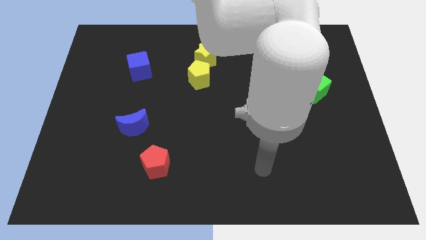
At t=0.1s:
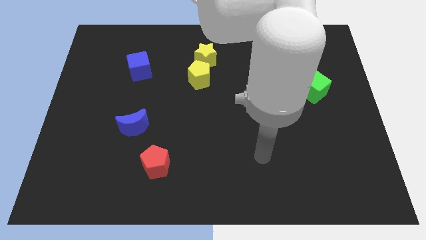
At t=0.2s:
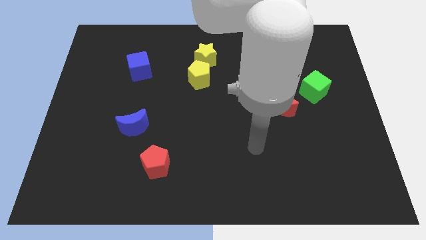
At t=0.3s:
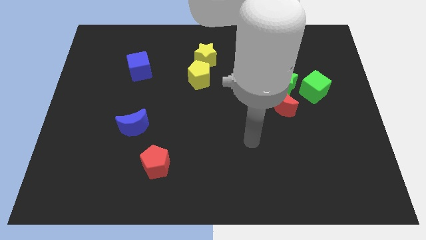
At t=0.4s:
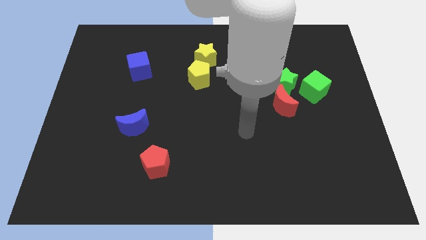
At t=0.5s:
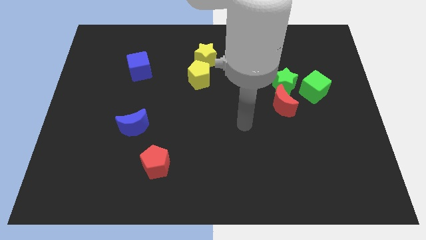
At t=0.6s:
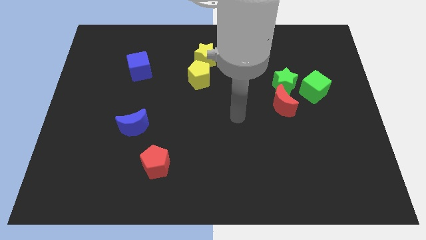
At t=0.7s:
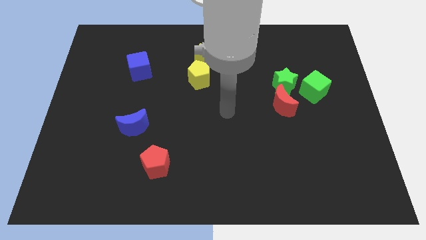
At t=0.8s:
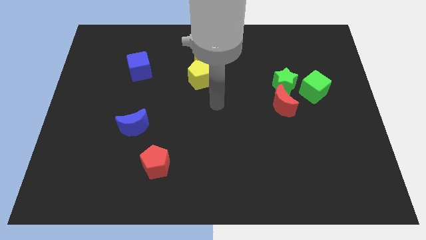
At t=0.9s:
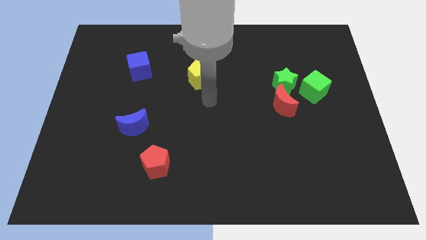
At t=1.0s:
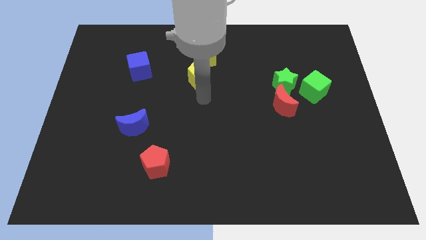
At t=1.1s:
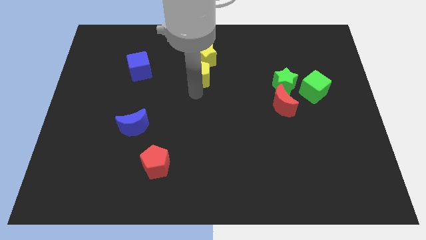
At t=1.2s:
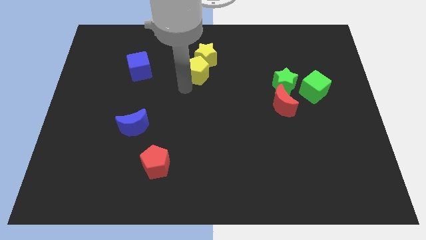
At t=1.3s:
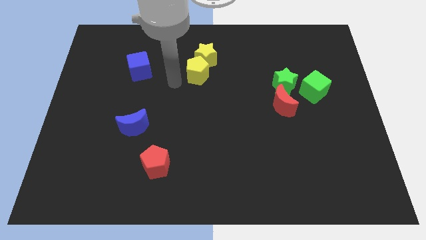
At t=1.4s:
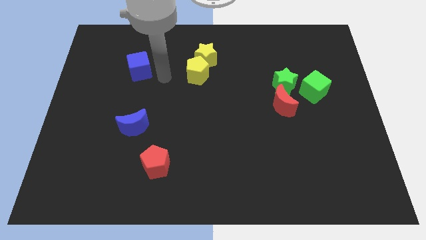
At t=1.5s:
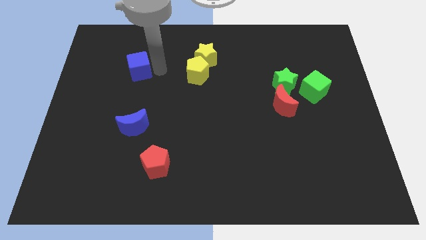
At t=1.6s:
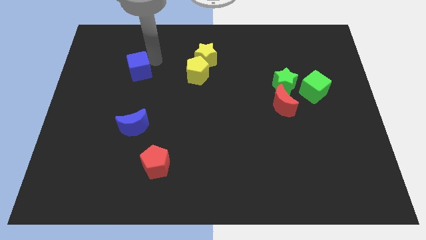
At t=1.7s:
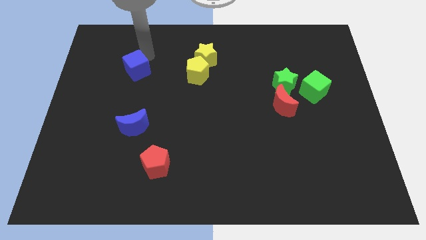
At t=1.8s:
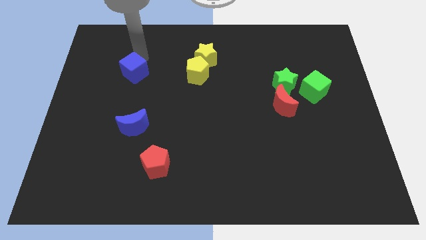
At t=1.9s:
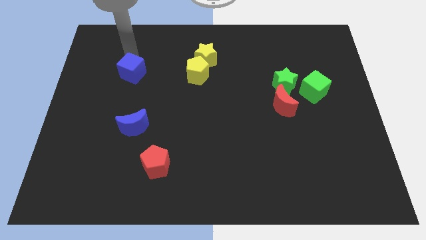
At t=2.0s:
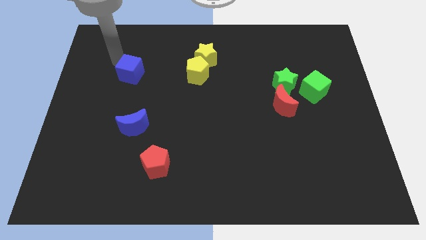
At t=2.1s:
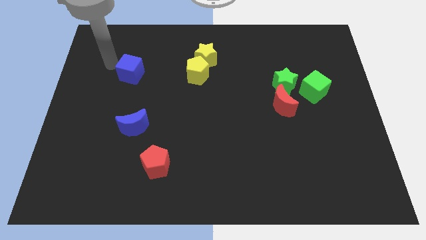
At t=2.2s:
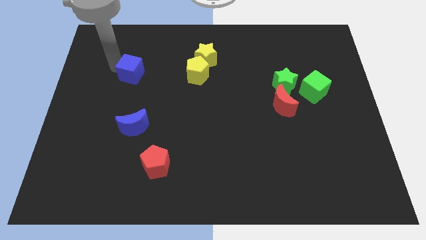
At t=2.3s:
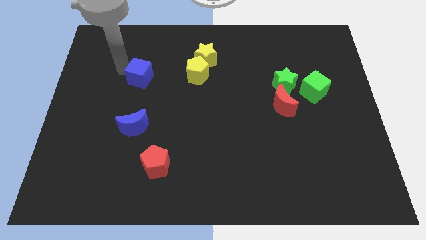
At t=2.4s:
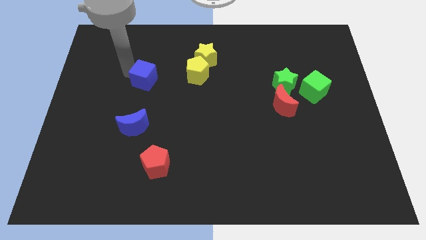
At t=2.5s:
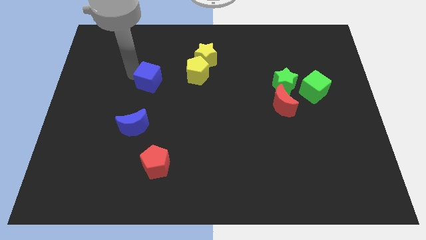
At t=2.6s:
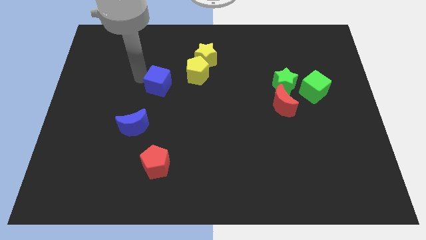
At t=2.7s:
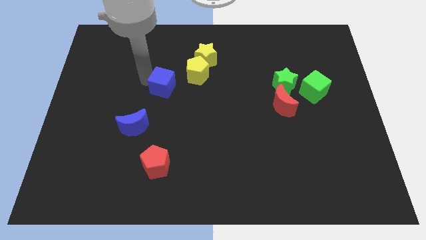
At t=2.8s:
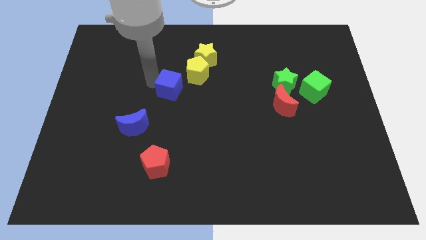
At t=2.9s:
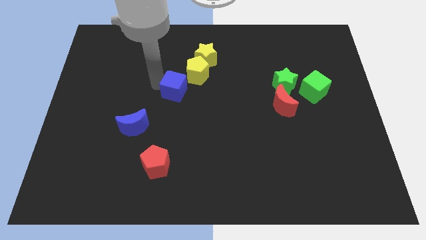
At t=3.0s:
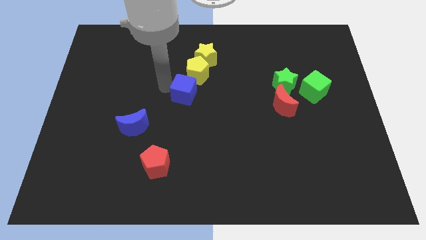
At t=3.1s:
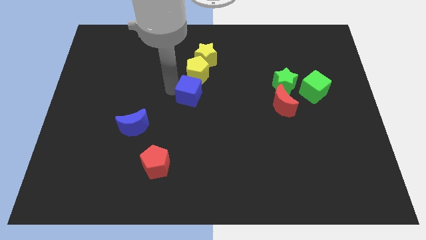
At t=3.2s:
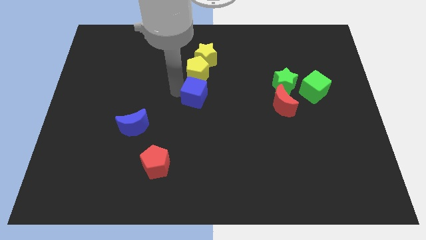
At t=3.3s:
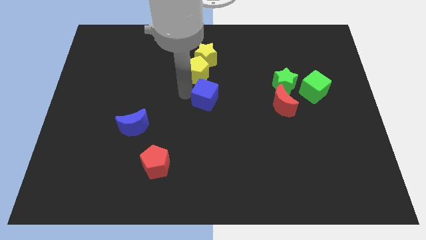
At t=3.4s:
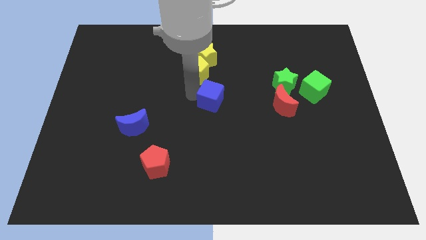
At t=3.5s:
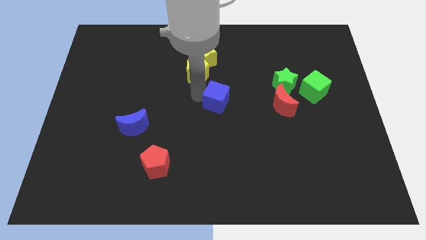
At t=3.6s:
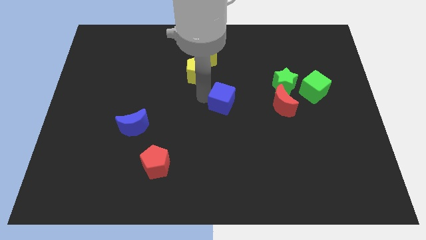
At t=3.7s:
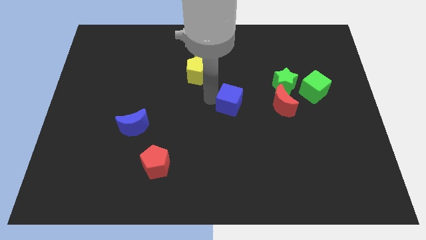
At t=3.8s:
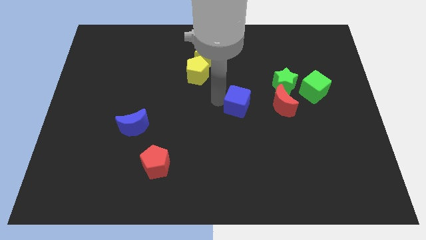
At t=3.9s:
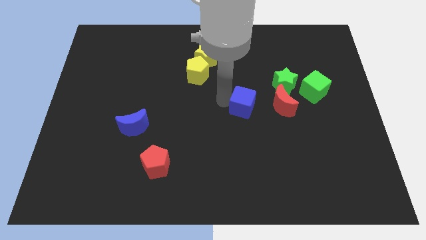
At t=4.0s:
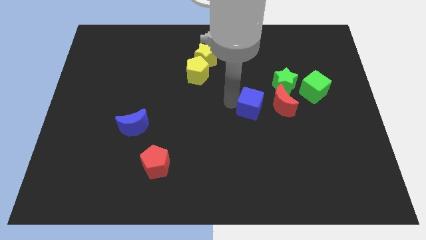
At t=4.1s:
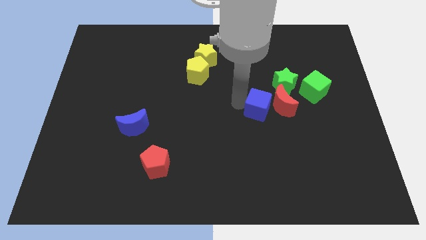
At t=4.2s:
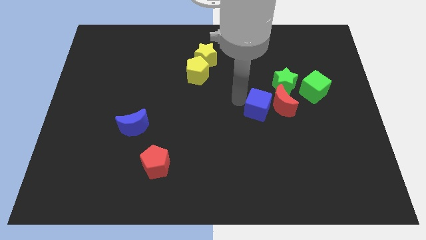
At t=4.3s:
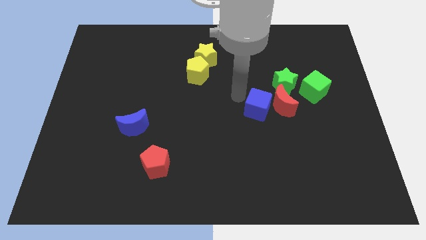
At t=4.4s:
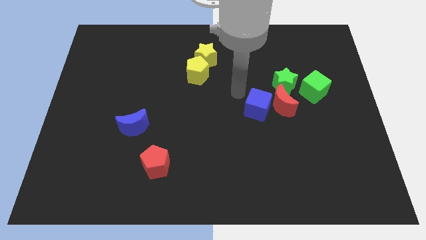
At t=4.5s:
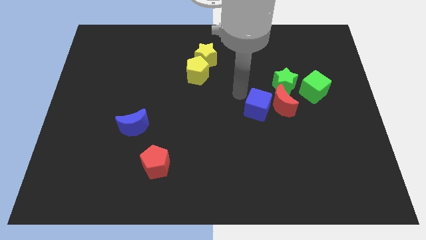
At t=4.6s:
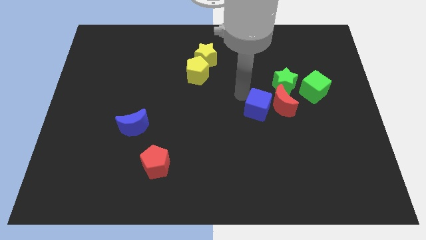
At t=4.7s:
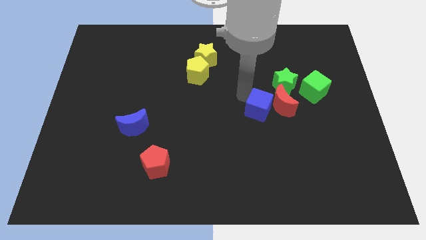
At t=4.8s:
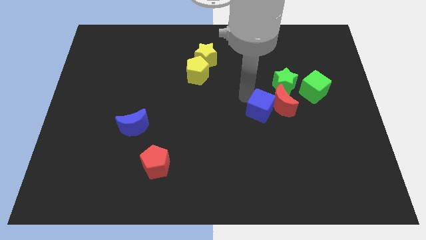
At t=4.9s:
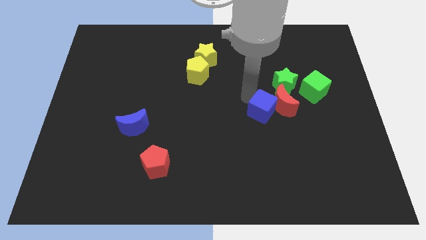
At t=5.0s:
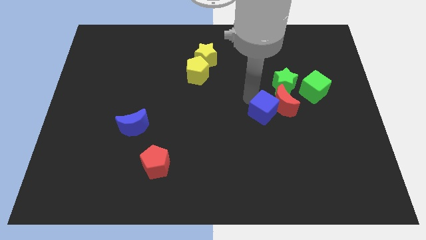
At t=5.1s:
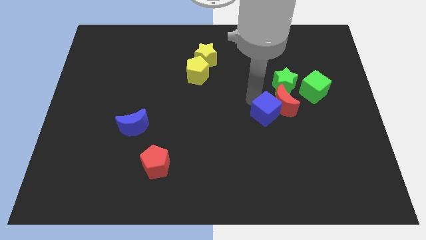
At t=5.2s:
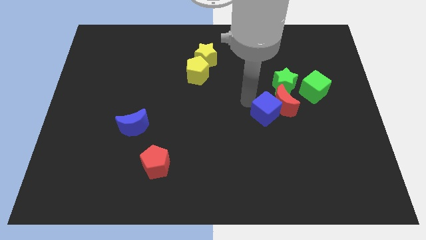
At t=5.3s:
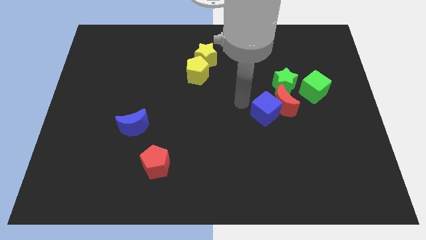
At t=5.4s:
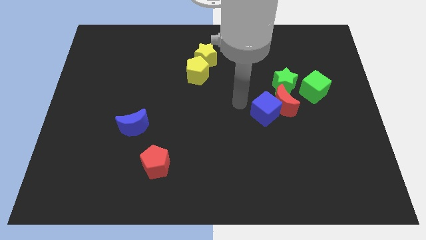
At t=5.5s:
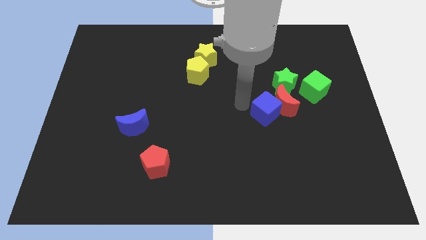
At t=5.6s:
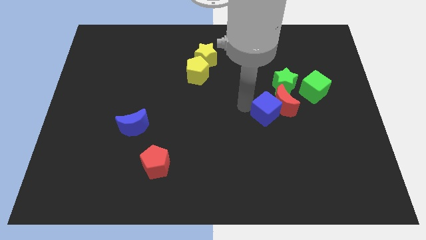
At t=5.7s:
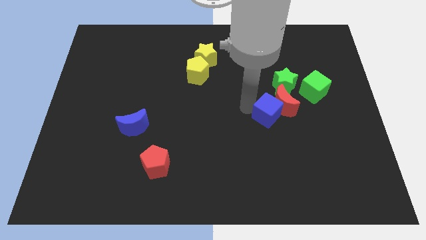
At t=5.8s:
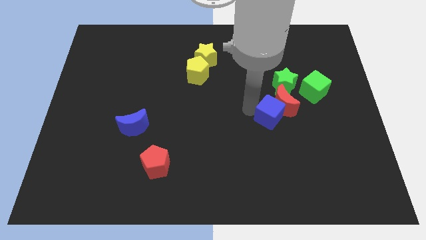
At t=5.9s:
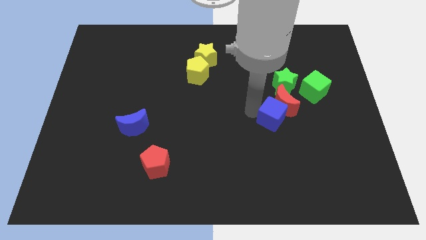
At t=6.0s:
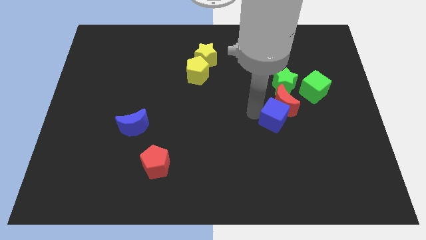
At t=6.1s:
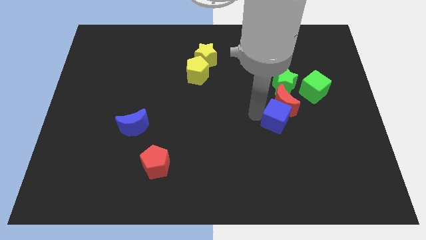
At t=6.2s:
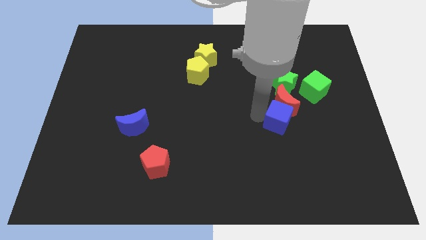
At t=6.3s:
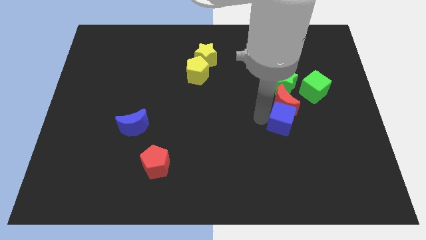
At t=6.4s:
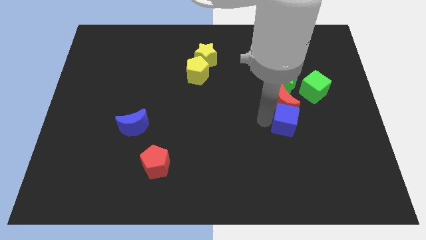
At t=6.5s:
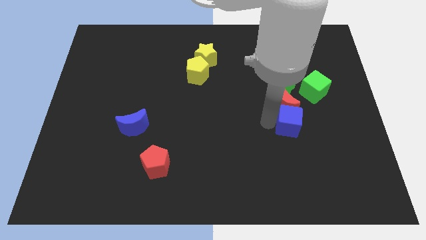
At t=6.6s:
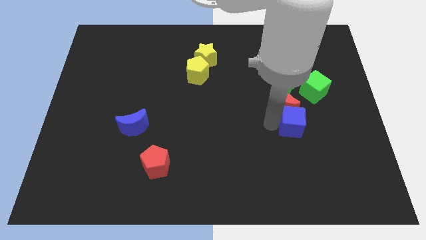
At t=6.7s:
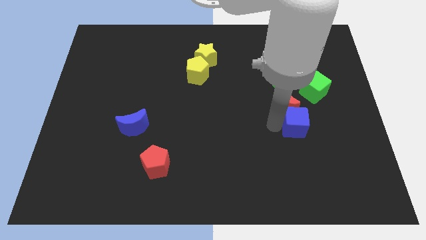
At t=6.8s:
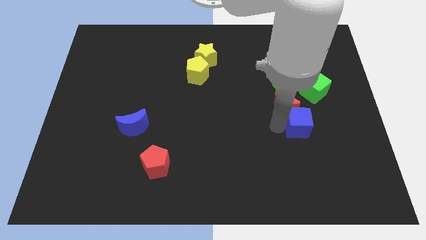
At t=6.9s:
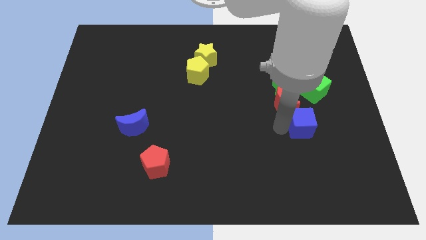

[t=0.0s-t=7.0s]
slide the blue cube below the green cube

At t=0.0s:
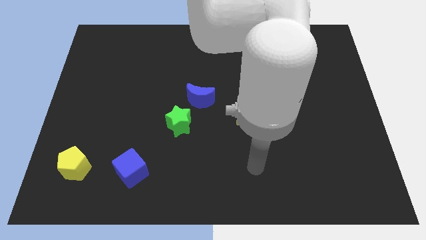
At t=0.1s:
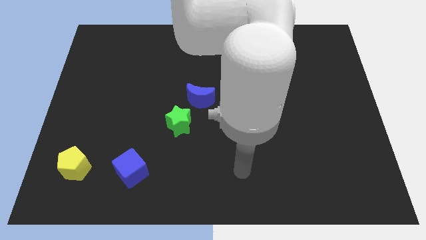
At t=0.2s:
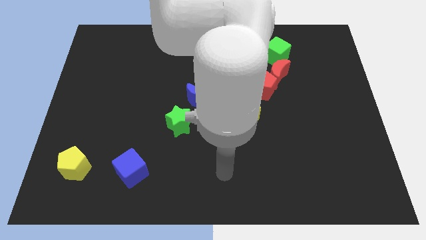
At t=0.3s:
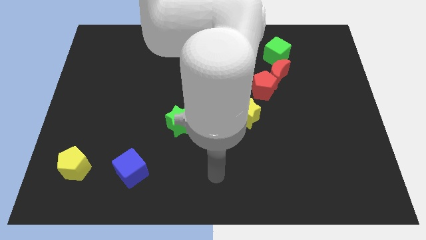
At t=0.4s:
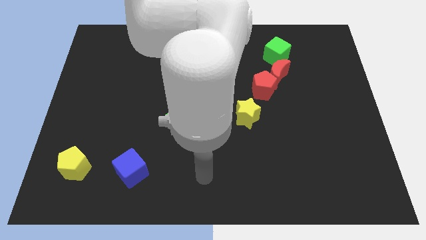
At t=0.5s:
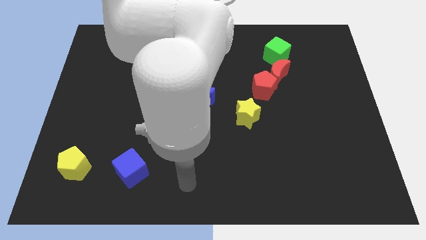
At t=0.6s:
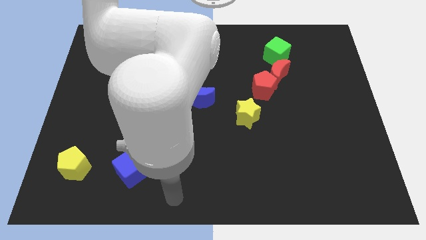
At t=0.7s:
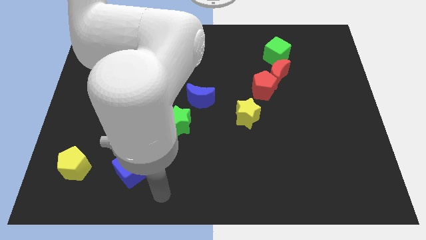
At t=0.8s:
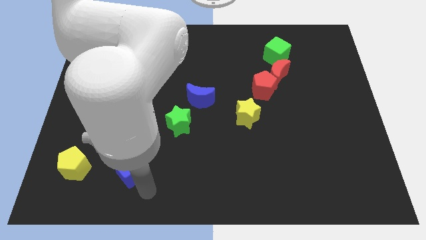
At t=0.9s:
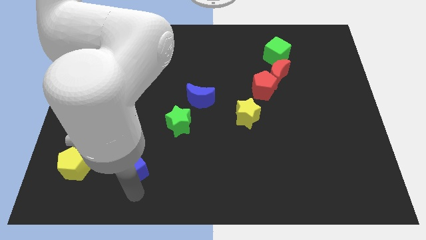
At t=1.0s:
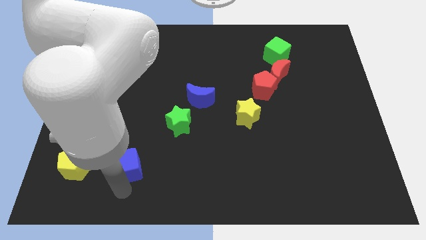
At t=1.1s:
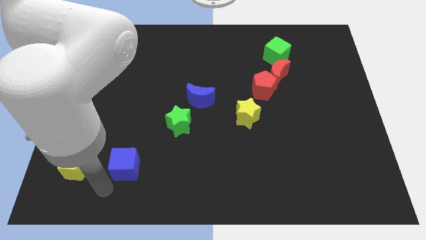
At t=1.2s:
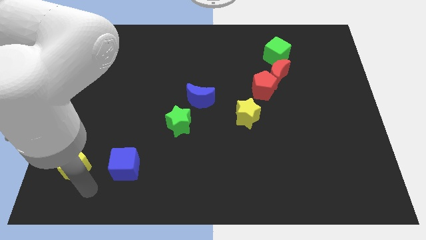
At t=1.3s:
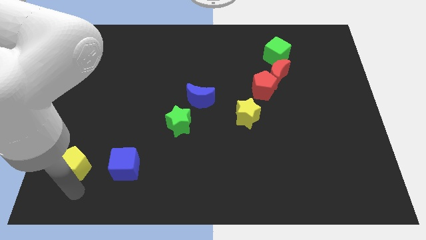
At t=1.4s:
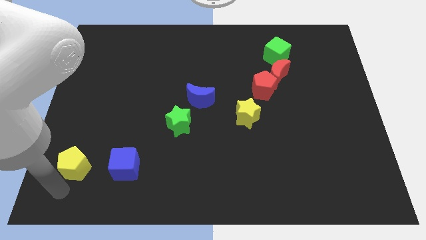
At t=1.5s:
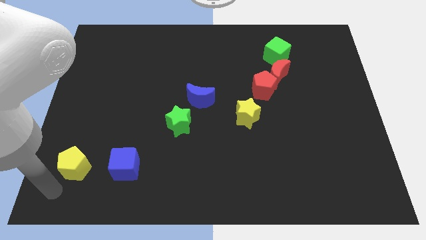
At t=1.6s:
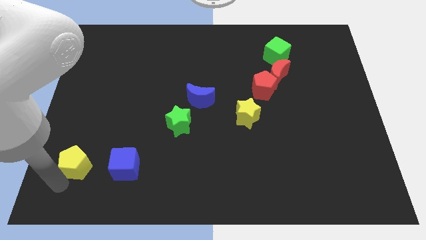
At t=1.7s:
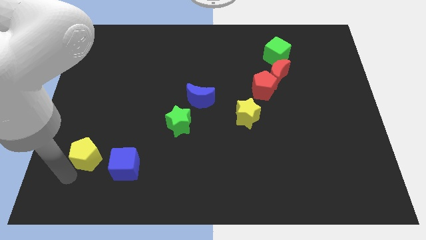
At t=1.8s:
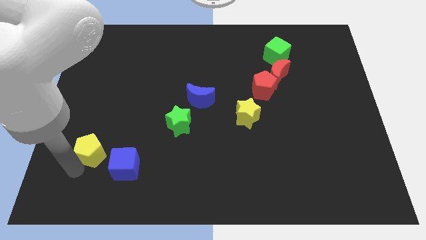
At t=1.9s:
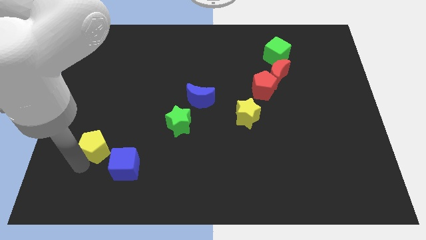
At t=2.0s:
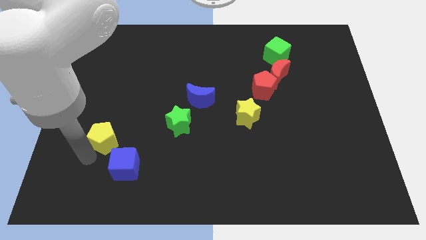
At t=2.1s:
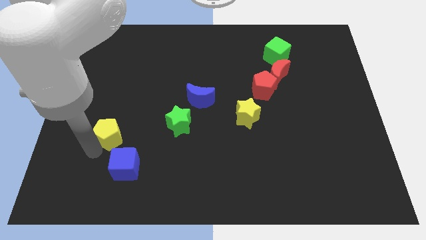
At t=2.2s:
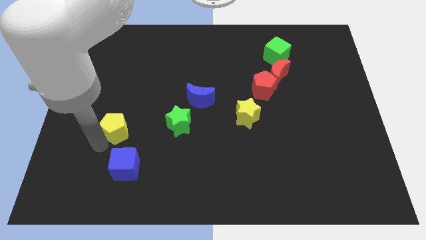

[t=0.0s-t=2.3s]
push the yellow pentagon to the left side of the green star
